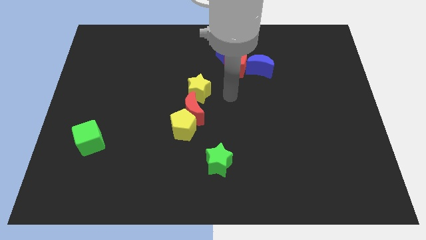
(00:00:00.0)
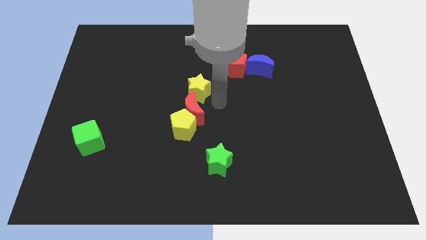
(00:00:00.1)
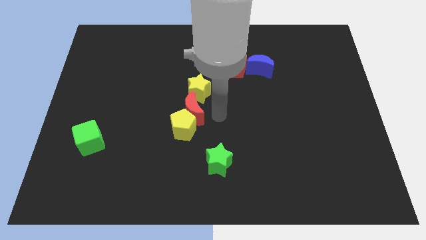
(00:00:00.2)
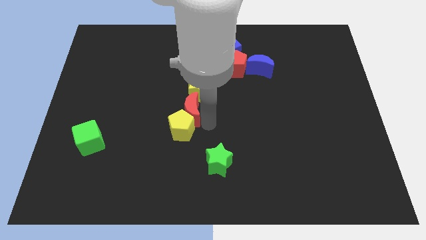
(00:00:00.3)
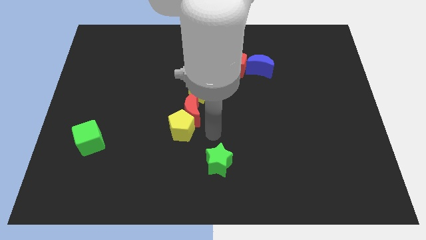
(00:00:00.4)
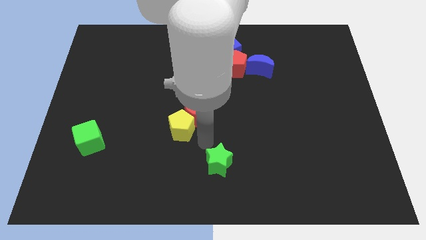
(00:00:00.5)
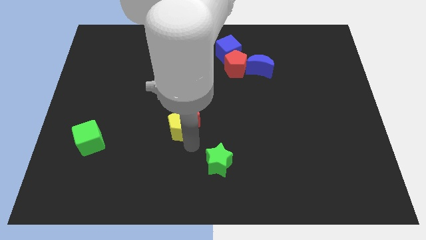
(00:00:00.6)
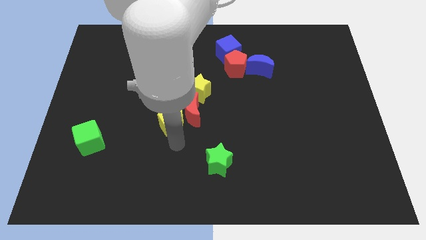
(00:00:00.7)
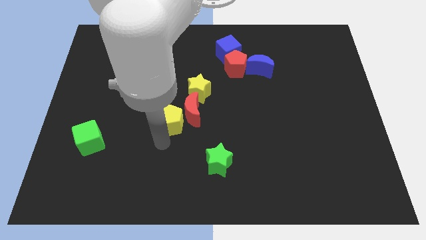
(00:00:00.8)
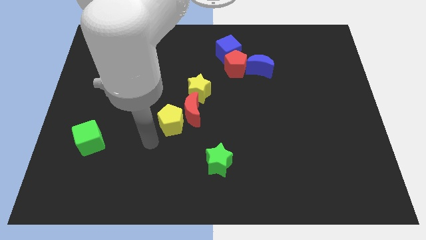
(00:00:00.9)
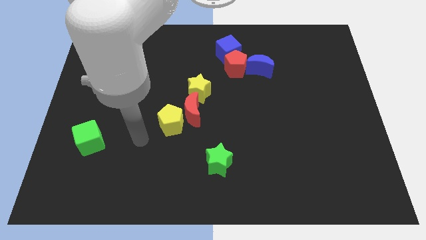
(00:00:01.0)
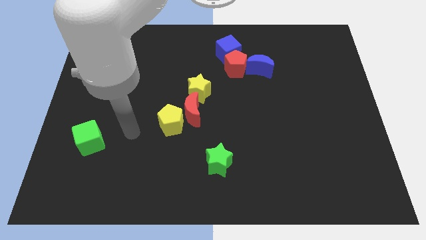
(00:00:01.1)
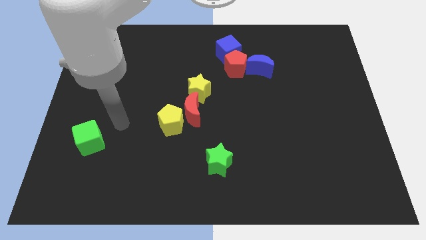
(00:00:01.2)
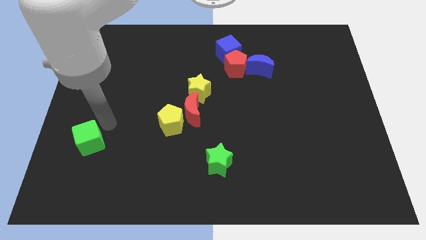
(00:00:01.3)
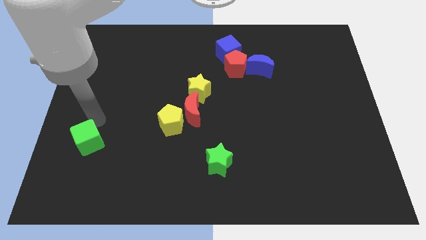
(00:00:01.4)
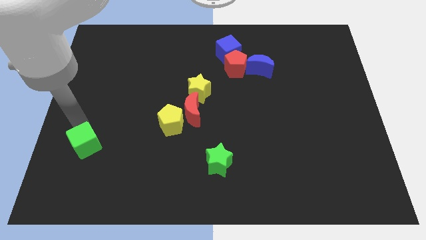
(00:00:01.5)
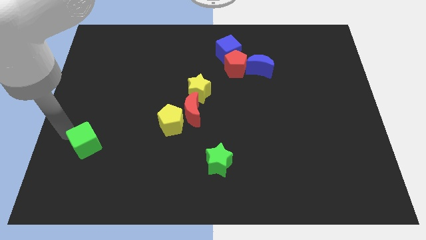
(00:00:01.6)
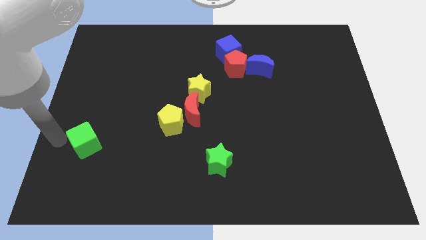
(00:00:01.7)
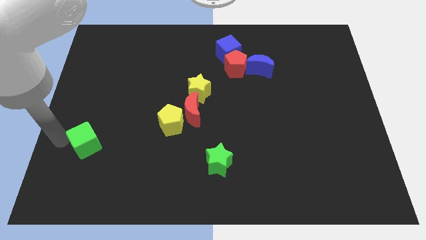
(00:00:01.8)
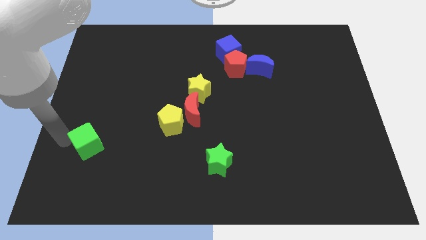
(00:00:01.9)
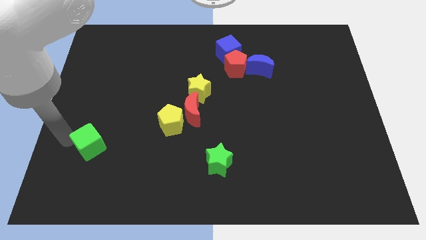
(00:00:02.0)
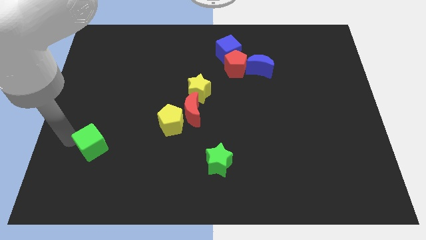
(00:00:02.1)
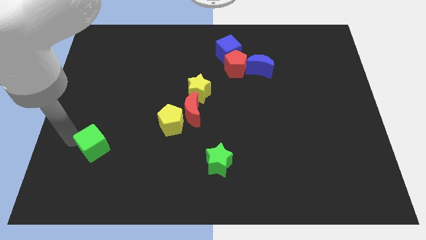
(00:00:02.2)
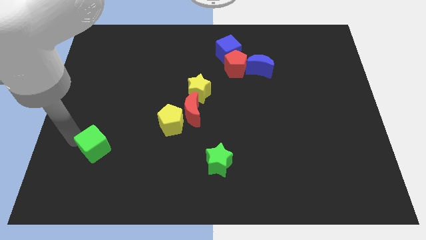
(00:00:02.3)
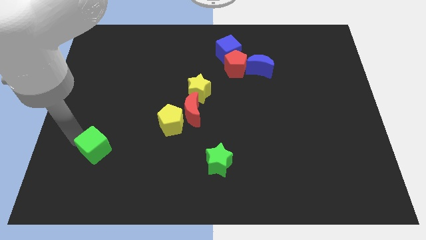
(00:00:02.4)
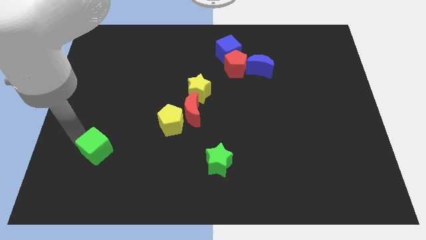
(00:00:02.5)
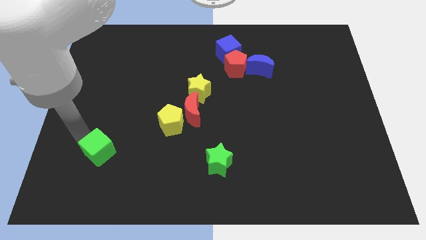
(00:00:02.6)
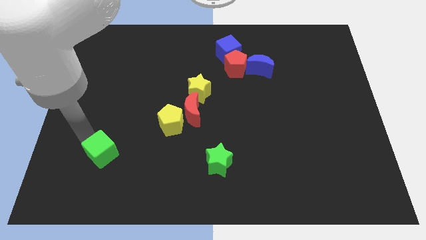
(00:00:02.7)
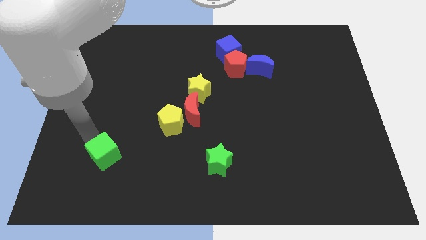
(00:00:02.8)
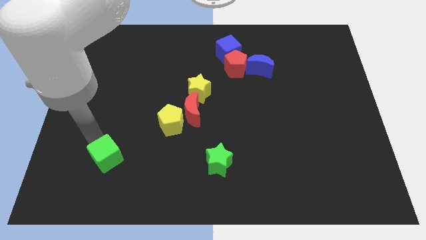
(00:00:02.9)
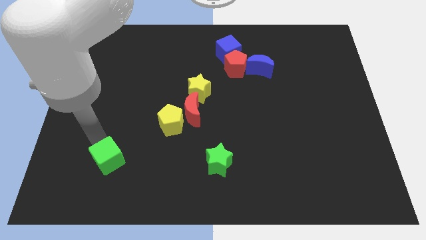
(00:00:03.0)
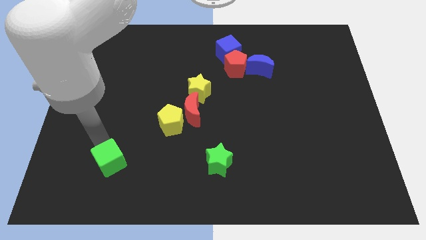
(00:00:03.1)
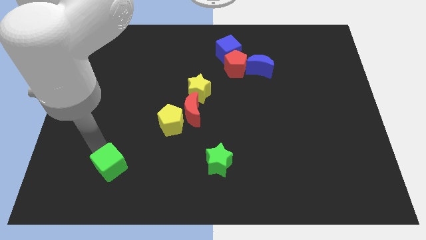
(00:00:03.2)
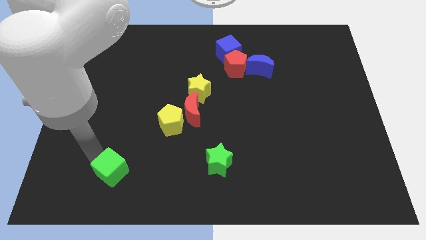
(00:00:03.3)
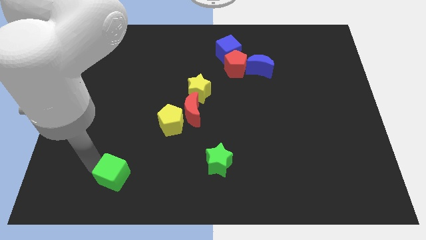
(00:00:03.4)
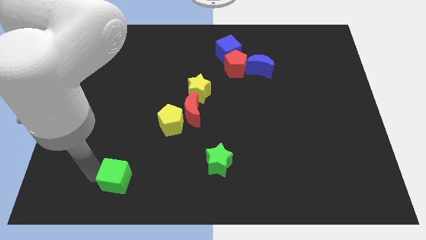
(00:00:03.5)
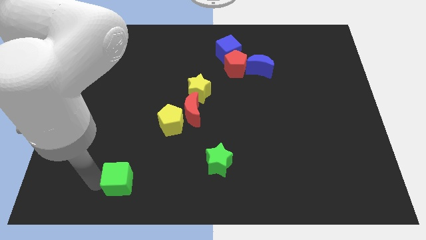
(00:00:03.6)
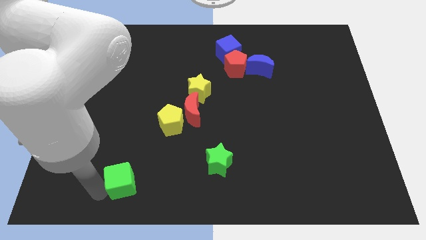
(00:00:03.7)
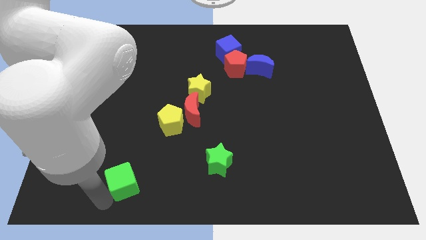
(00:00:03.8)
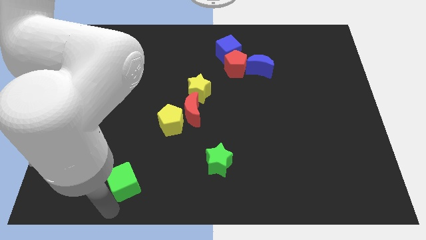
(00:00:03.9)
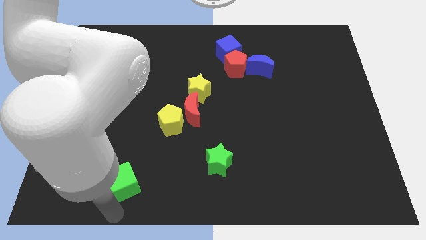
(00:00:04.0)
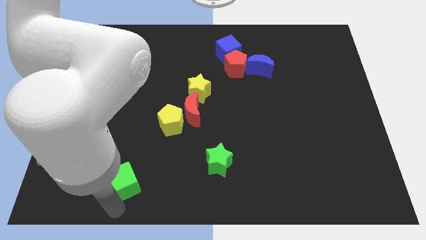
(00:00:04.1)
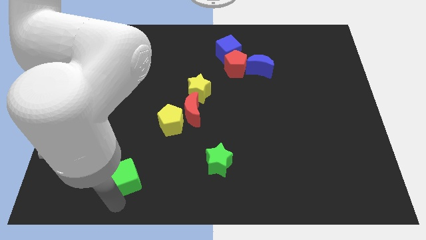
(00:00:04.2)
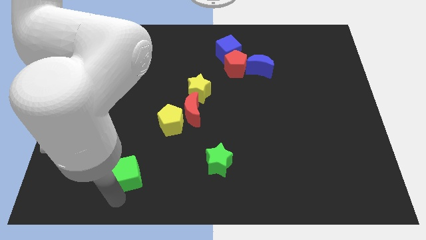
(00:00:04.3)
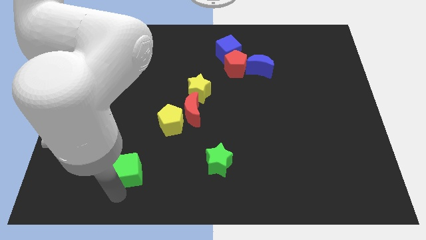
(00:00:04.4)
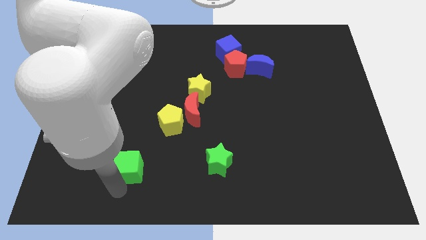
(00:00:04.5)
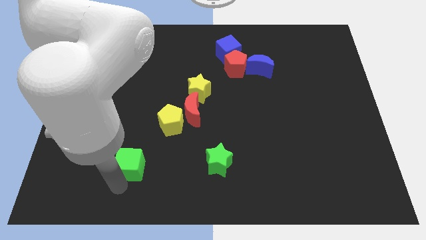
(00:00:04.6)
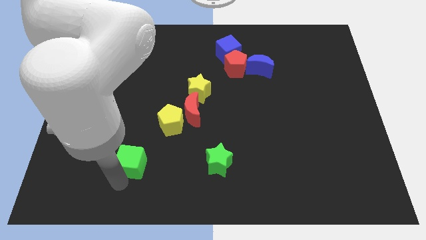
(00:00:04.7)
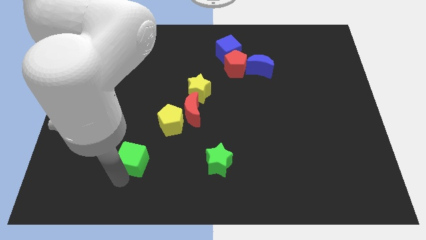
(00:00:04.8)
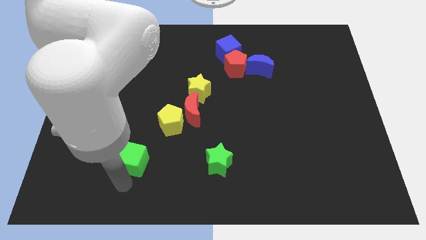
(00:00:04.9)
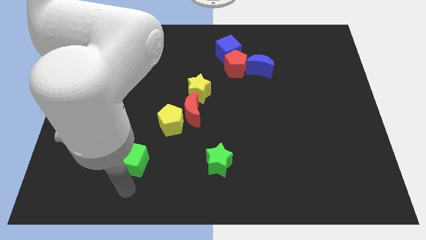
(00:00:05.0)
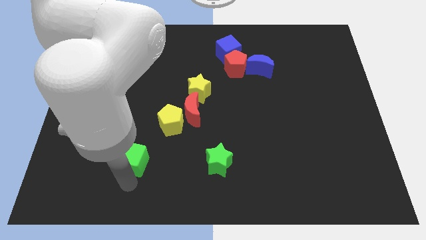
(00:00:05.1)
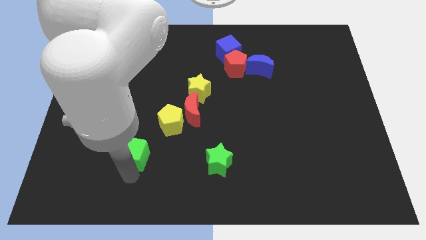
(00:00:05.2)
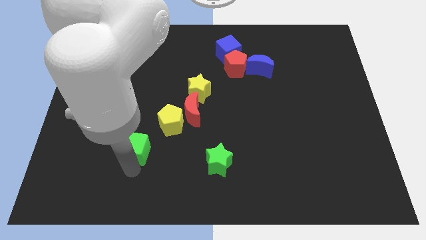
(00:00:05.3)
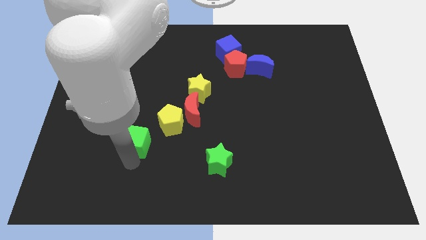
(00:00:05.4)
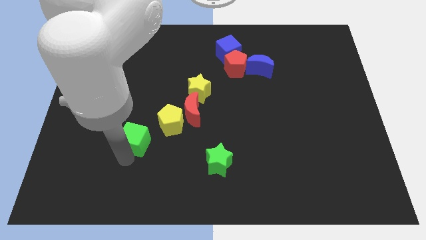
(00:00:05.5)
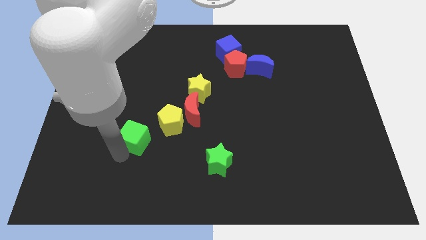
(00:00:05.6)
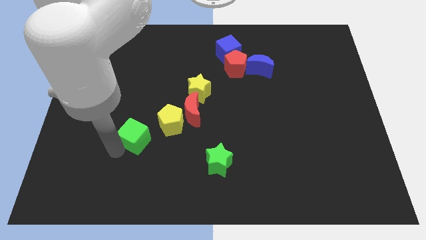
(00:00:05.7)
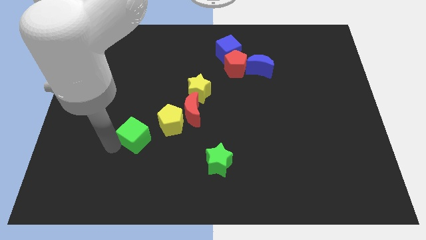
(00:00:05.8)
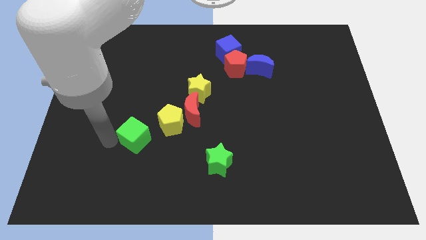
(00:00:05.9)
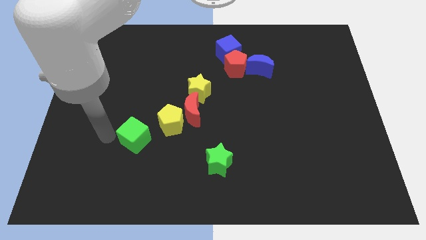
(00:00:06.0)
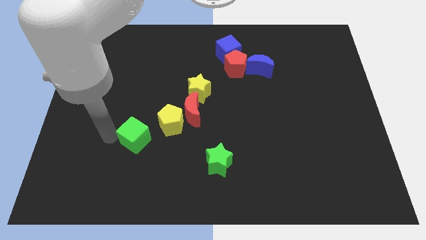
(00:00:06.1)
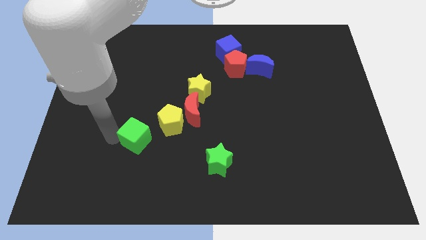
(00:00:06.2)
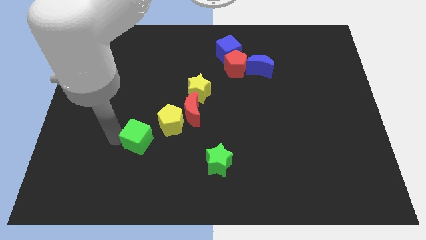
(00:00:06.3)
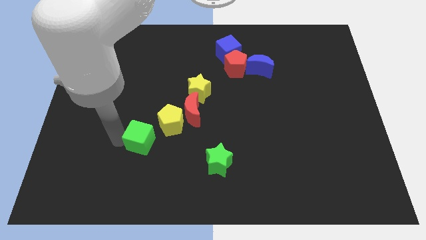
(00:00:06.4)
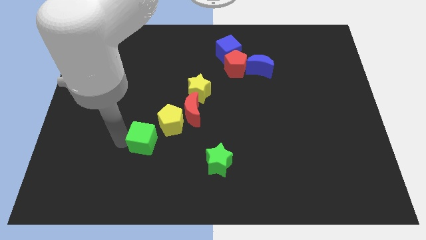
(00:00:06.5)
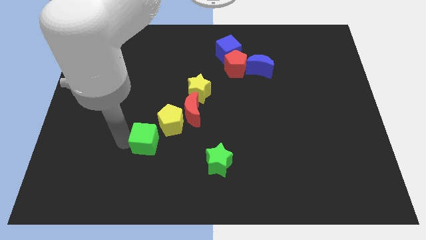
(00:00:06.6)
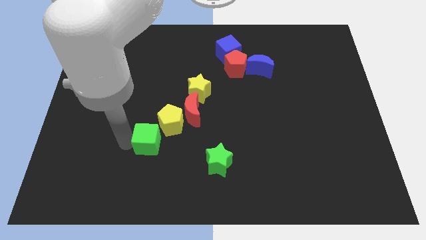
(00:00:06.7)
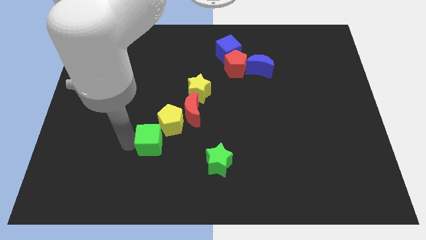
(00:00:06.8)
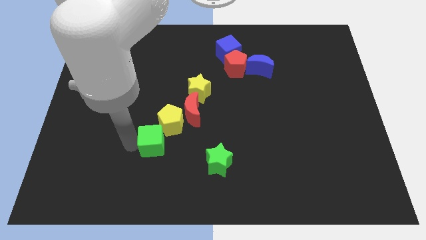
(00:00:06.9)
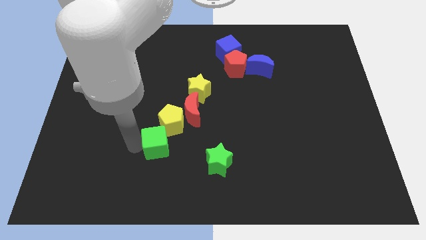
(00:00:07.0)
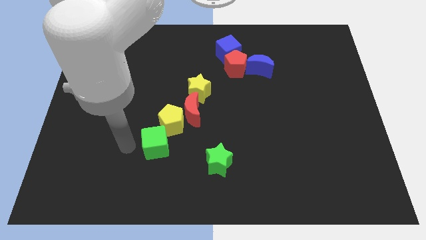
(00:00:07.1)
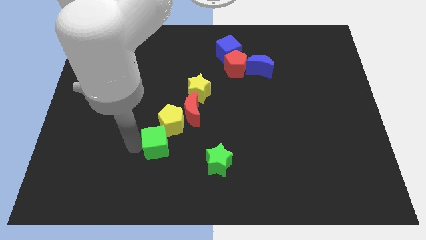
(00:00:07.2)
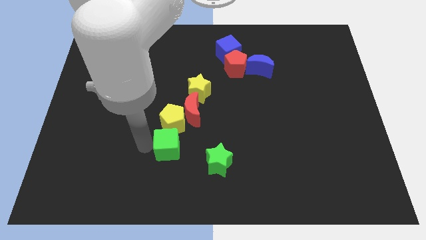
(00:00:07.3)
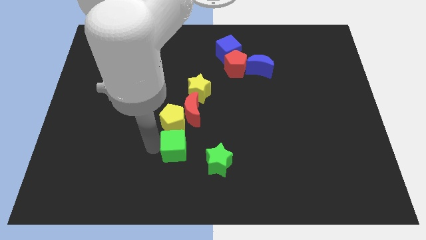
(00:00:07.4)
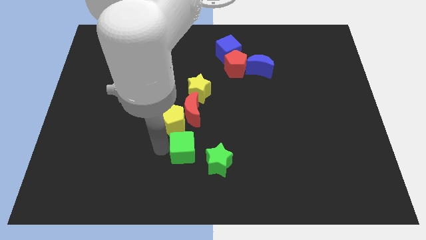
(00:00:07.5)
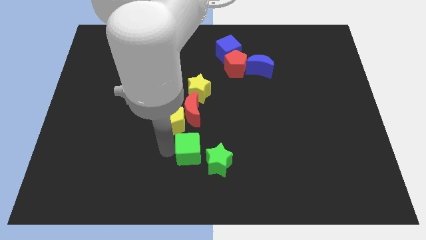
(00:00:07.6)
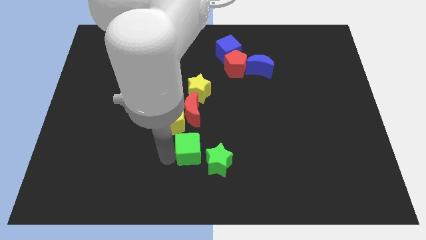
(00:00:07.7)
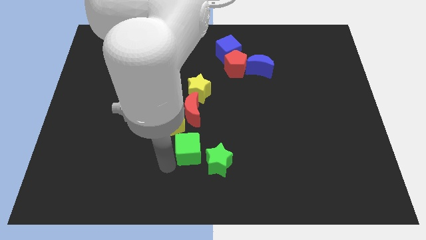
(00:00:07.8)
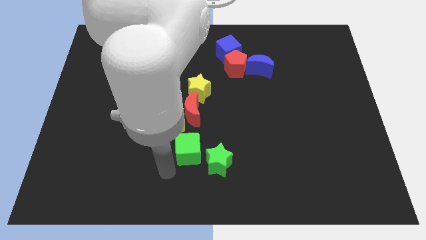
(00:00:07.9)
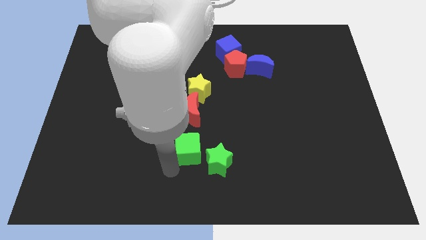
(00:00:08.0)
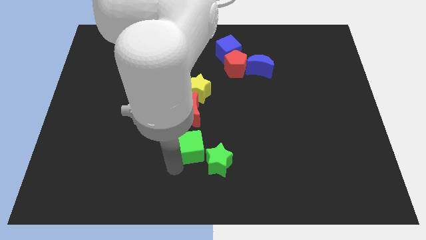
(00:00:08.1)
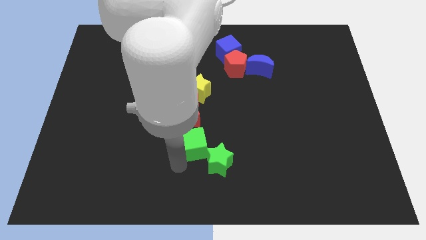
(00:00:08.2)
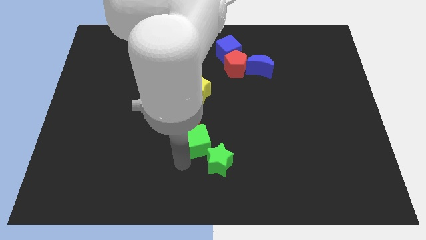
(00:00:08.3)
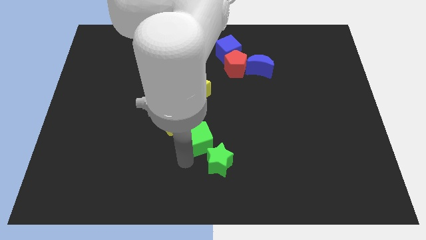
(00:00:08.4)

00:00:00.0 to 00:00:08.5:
push the green cube to the right side of the yellow pentagon
